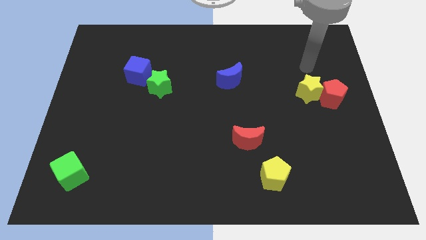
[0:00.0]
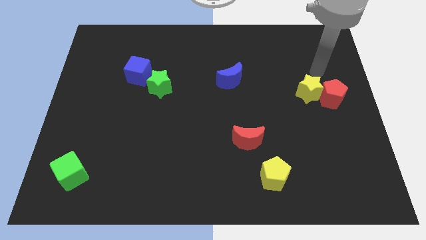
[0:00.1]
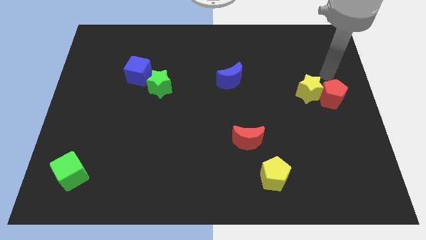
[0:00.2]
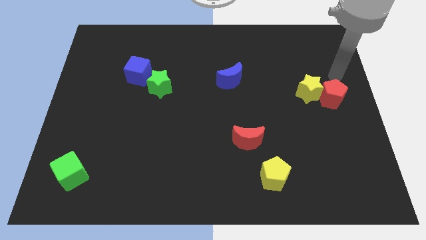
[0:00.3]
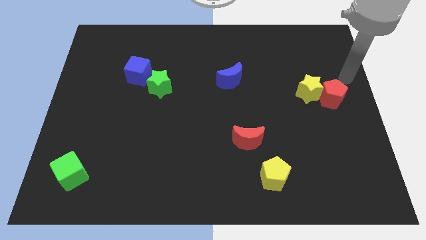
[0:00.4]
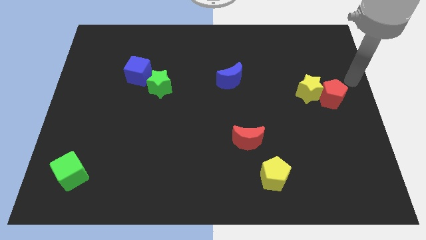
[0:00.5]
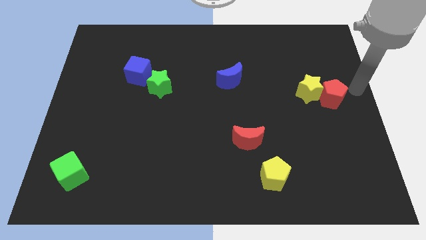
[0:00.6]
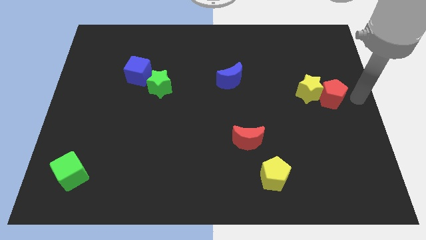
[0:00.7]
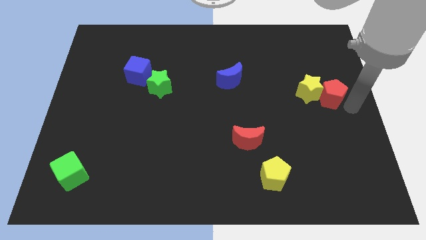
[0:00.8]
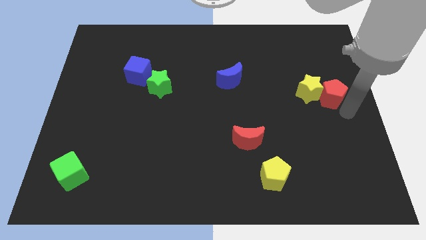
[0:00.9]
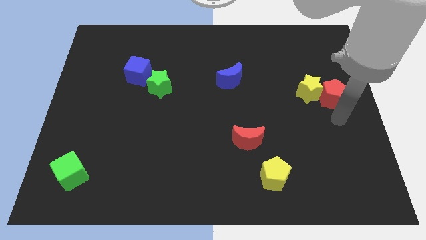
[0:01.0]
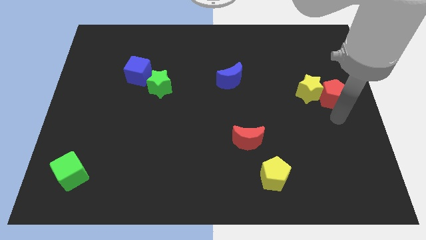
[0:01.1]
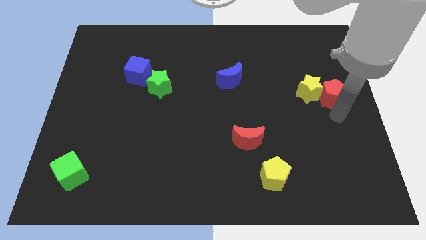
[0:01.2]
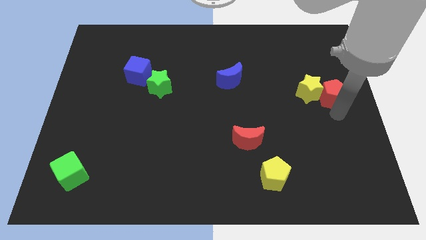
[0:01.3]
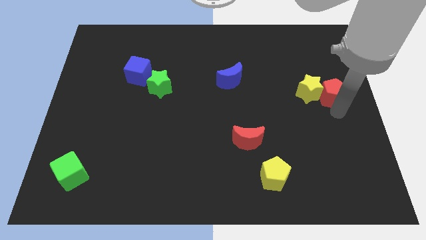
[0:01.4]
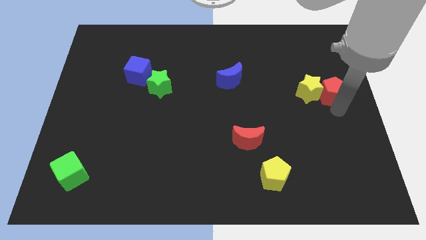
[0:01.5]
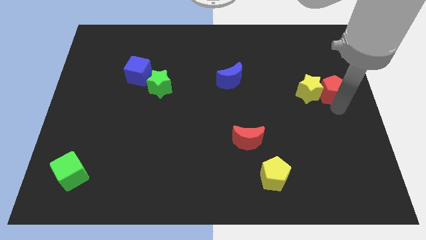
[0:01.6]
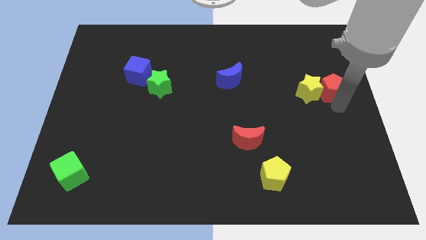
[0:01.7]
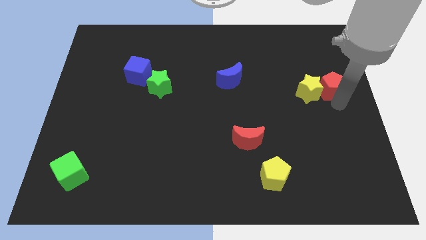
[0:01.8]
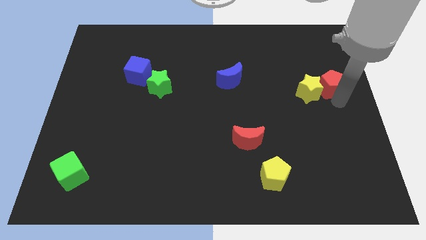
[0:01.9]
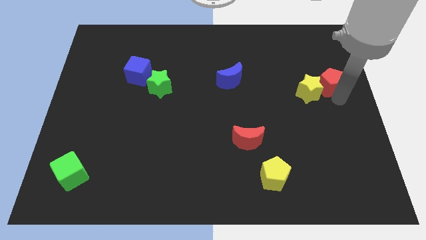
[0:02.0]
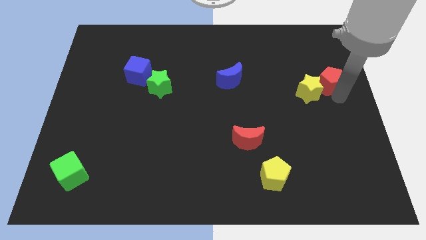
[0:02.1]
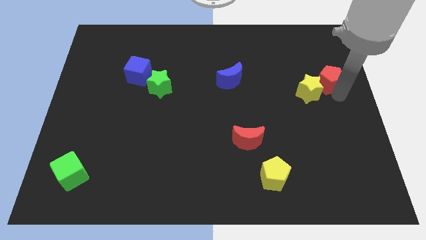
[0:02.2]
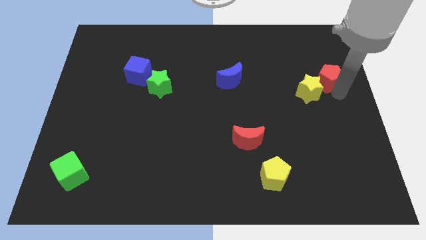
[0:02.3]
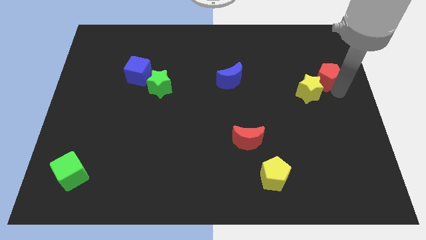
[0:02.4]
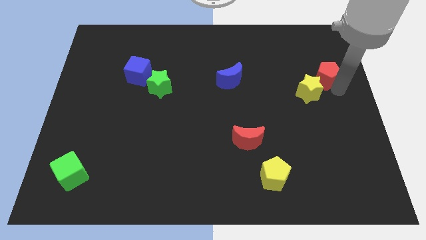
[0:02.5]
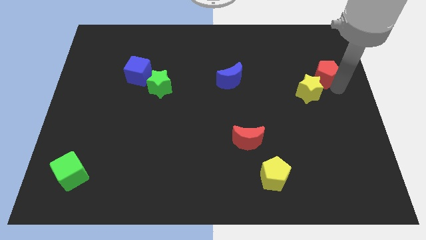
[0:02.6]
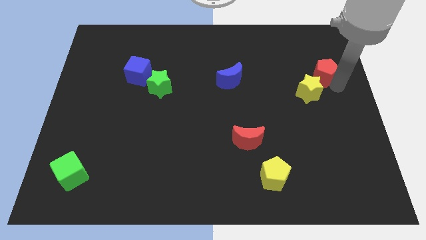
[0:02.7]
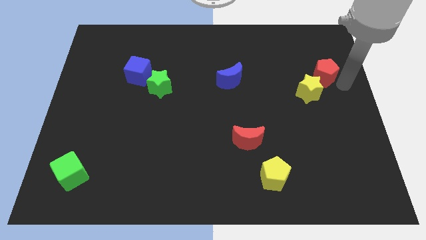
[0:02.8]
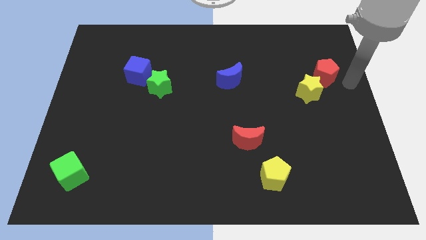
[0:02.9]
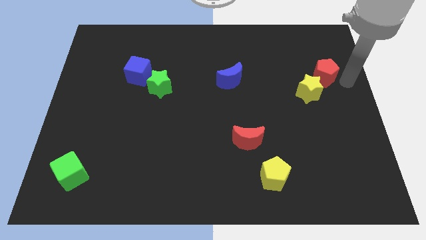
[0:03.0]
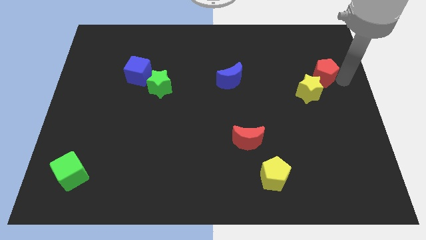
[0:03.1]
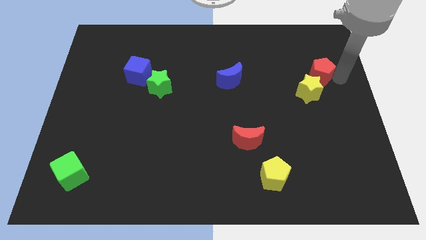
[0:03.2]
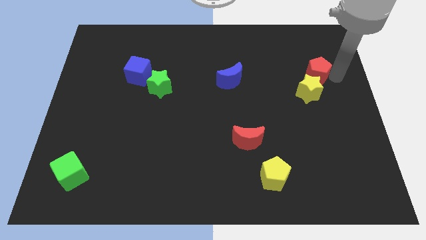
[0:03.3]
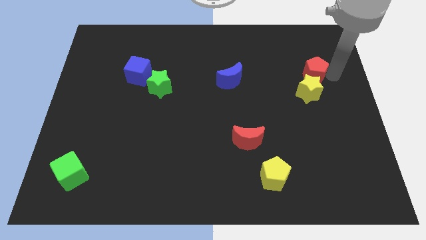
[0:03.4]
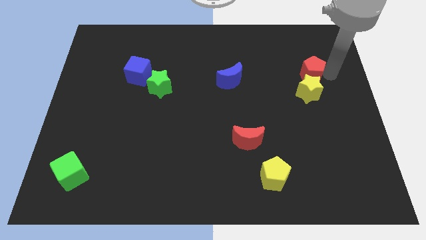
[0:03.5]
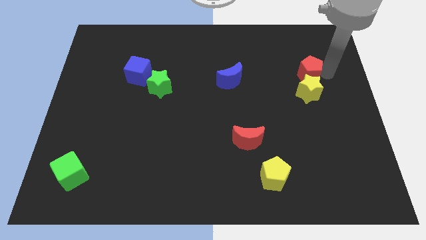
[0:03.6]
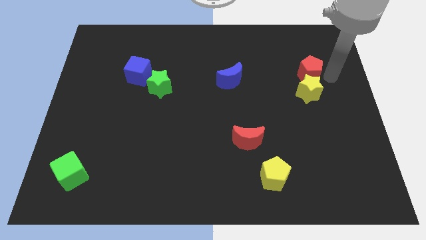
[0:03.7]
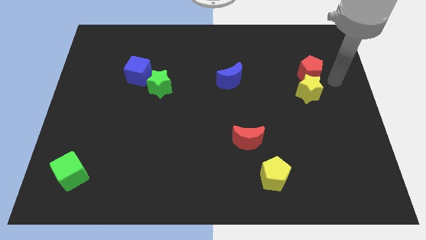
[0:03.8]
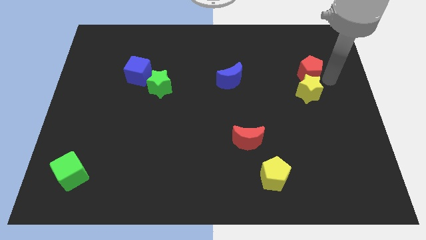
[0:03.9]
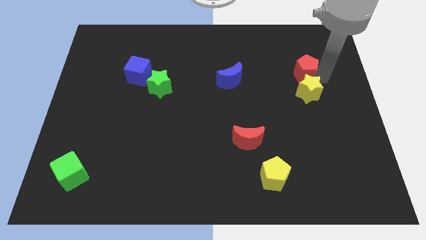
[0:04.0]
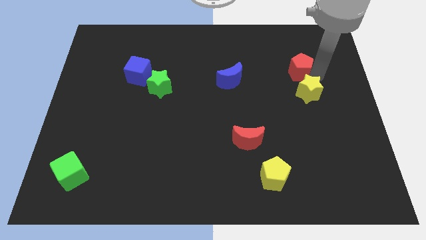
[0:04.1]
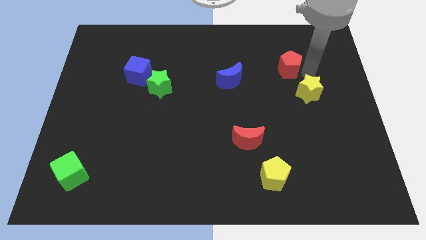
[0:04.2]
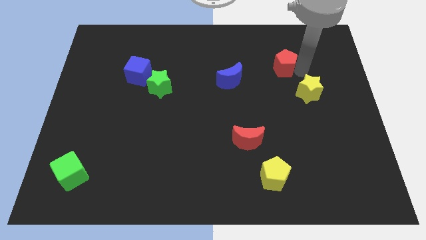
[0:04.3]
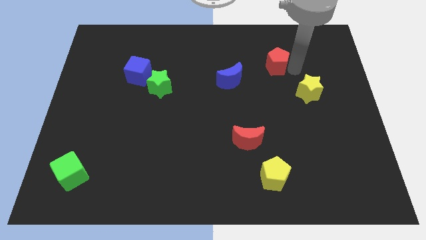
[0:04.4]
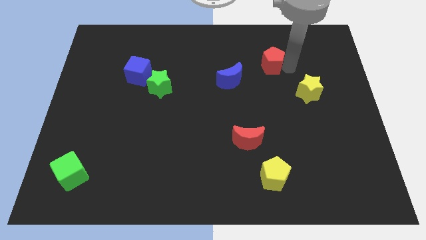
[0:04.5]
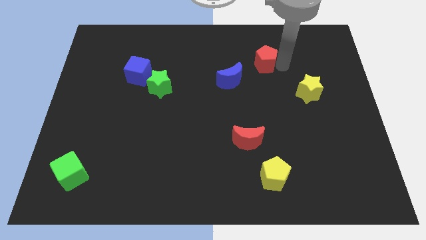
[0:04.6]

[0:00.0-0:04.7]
put the red pentagon diagonally up and to the right of the blue moon

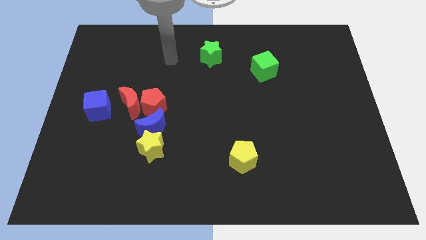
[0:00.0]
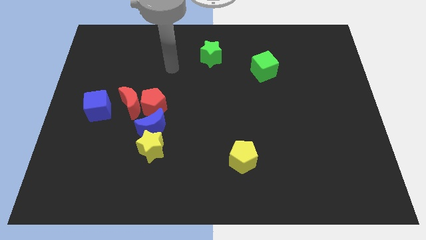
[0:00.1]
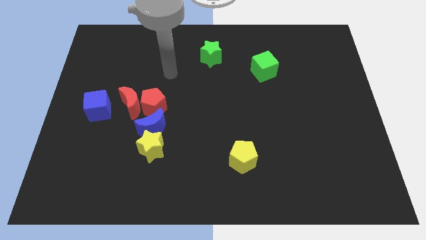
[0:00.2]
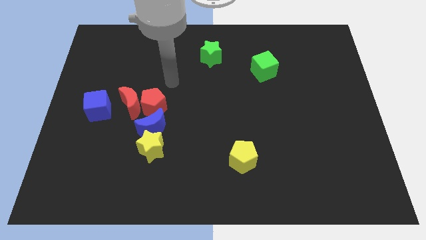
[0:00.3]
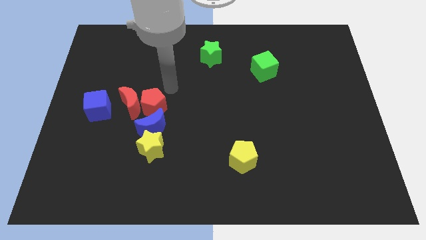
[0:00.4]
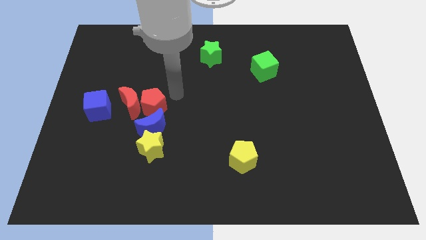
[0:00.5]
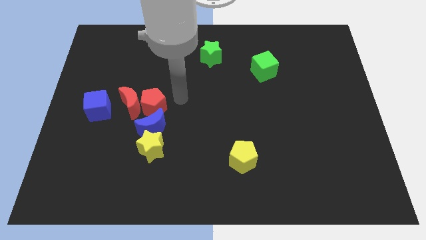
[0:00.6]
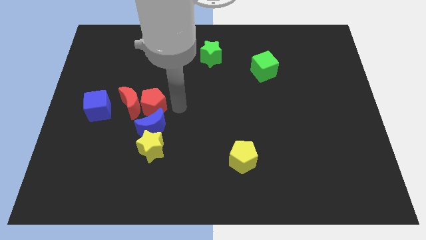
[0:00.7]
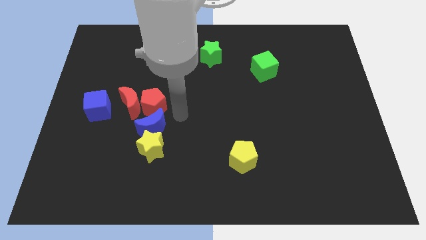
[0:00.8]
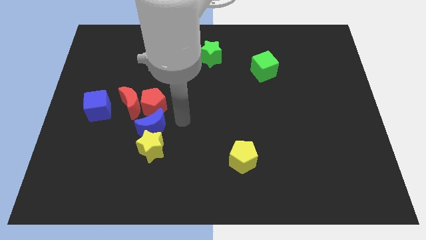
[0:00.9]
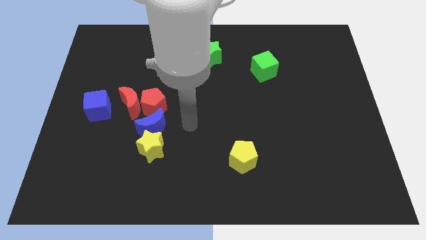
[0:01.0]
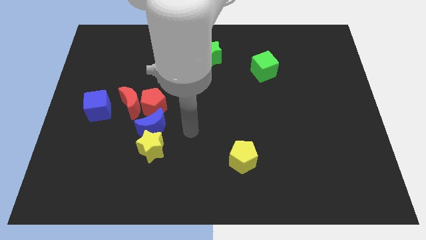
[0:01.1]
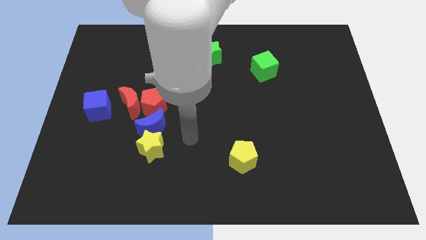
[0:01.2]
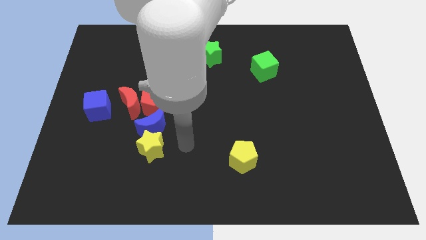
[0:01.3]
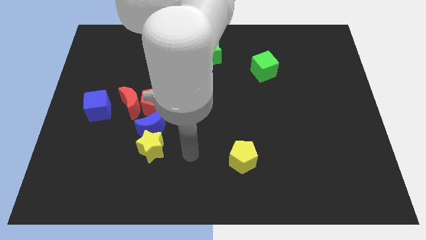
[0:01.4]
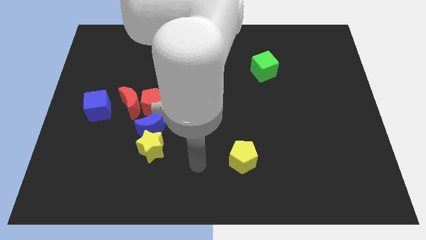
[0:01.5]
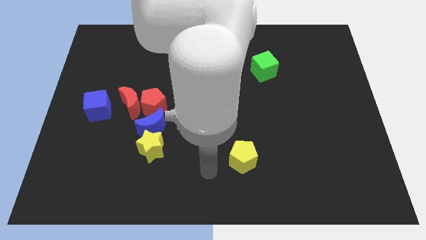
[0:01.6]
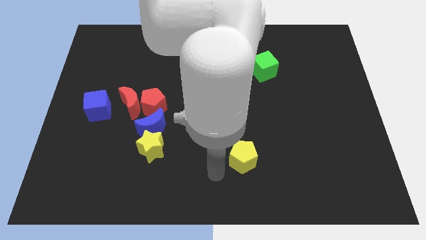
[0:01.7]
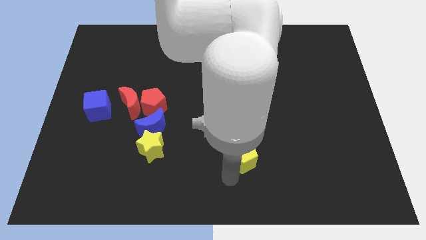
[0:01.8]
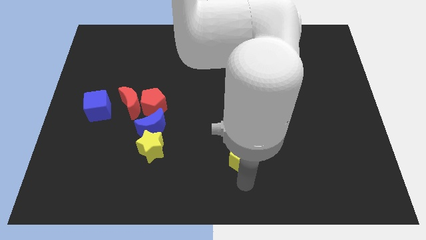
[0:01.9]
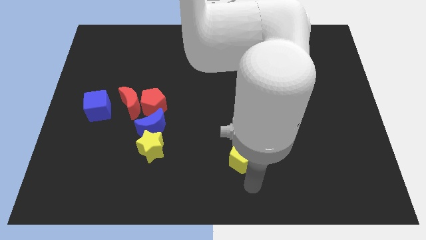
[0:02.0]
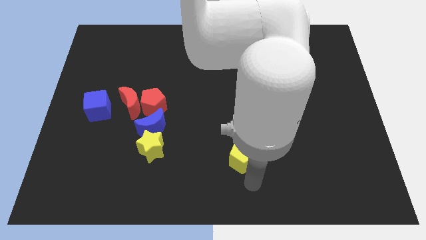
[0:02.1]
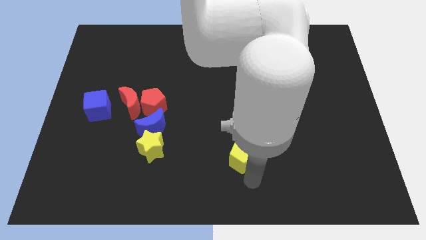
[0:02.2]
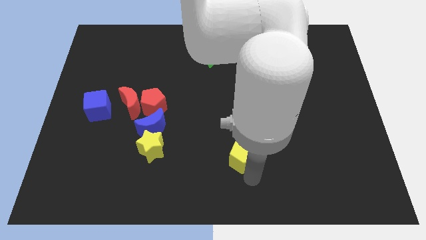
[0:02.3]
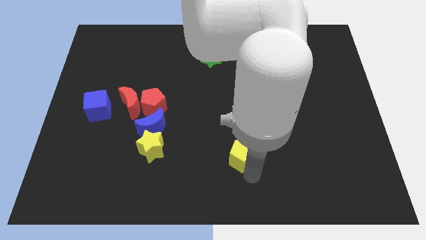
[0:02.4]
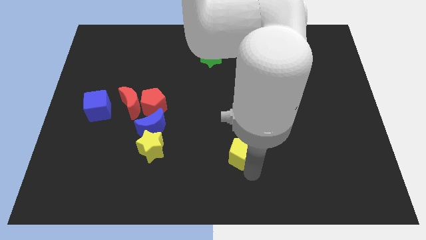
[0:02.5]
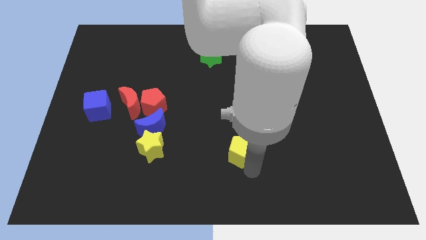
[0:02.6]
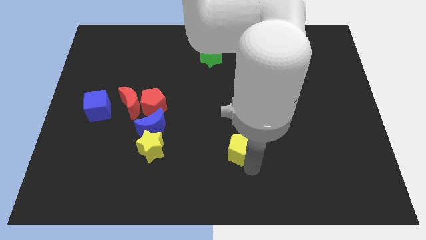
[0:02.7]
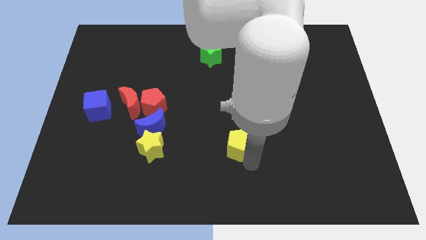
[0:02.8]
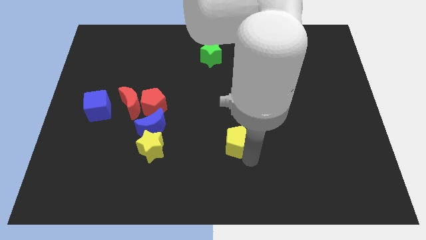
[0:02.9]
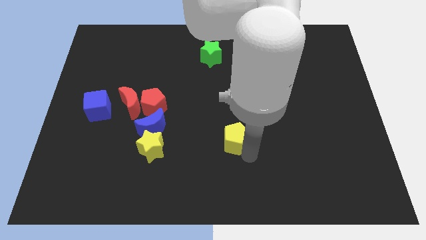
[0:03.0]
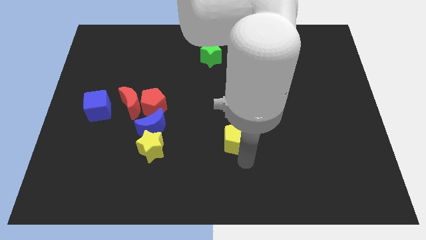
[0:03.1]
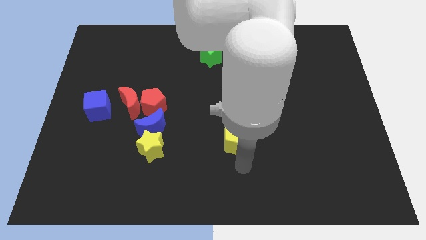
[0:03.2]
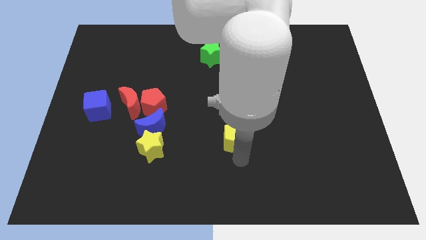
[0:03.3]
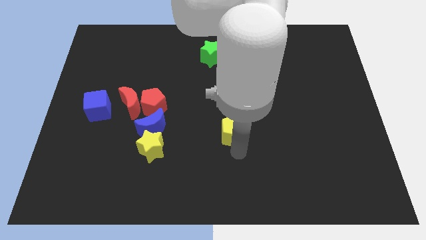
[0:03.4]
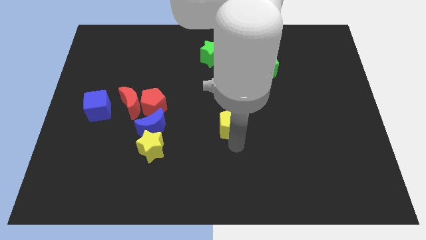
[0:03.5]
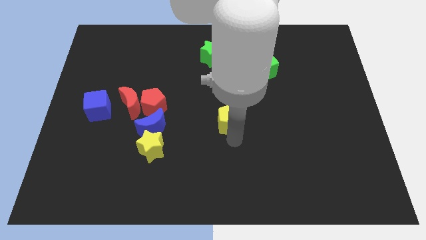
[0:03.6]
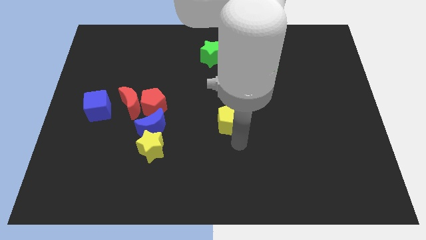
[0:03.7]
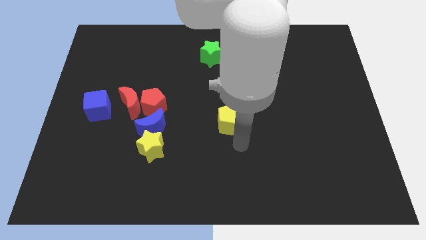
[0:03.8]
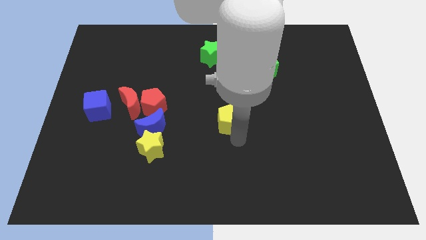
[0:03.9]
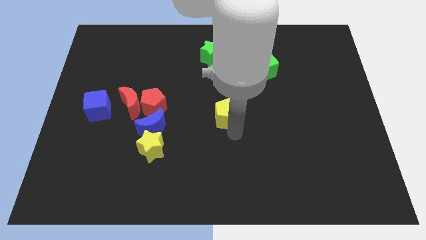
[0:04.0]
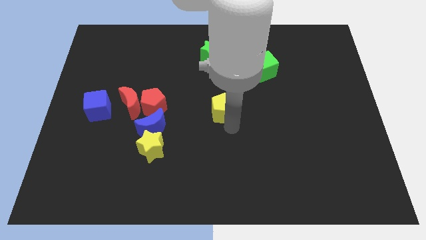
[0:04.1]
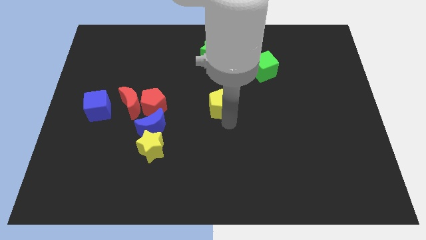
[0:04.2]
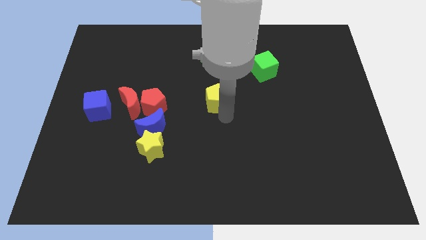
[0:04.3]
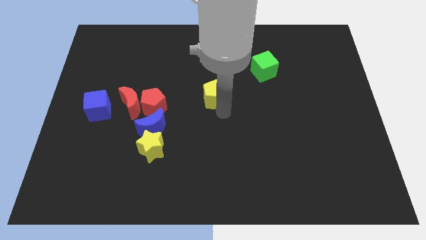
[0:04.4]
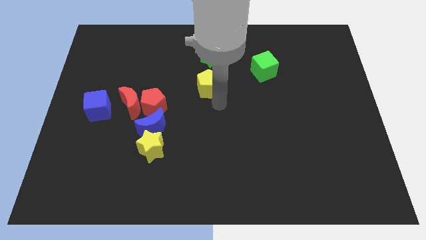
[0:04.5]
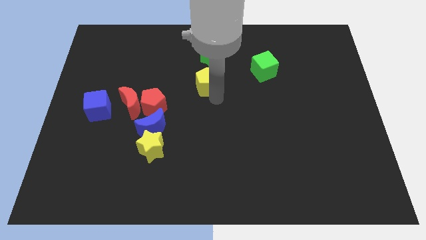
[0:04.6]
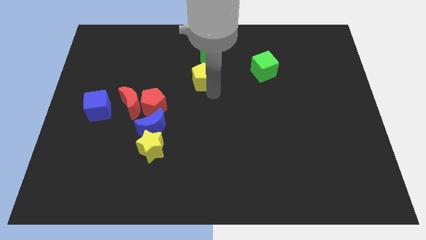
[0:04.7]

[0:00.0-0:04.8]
push the yellow pentagon to the bottom left side of the green star
